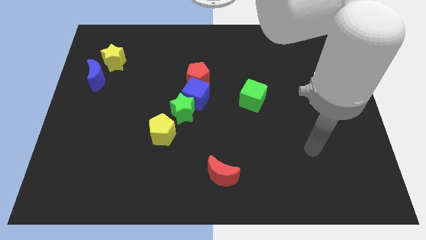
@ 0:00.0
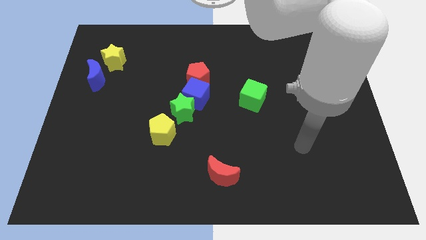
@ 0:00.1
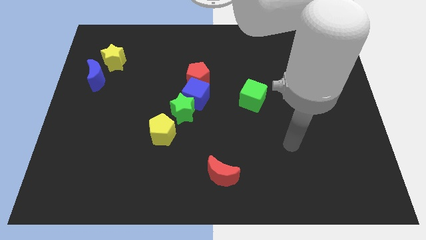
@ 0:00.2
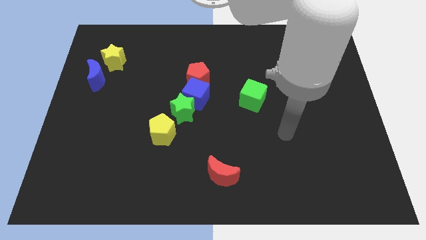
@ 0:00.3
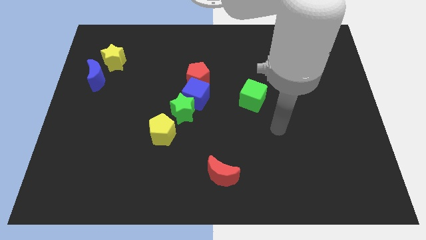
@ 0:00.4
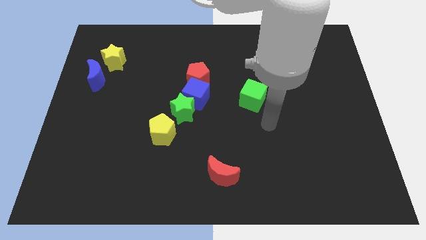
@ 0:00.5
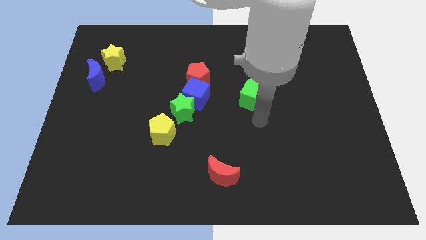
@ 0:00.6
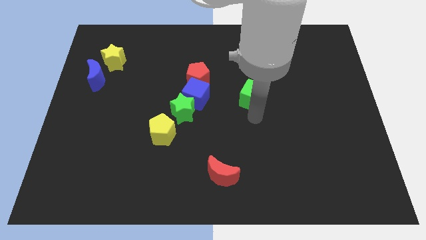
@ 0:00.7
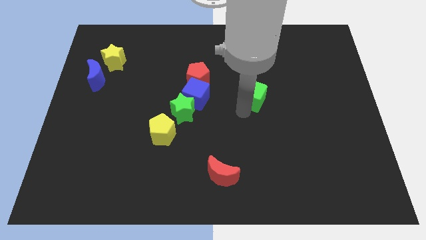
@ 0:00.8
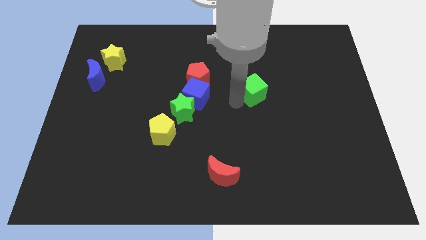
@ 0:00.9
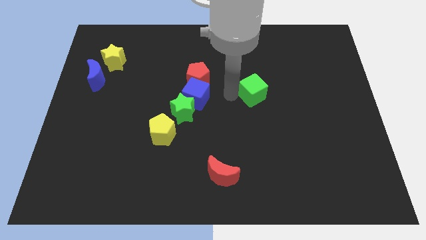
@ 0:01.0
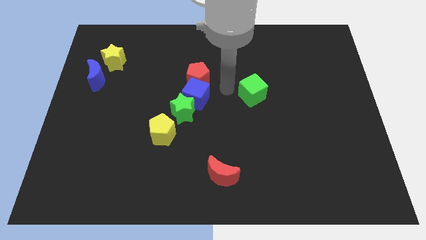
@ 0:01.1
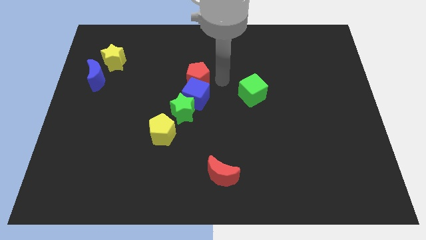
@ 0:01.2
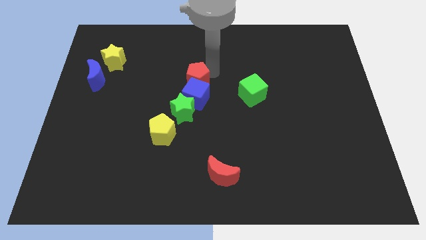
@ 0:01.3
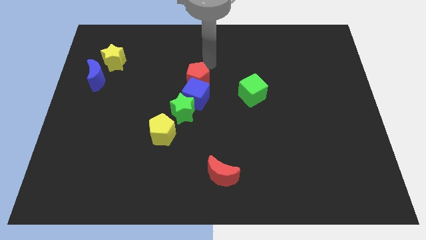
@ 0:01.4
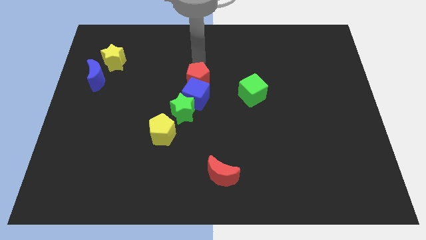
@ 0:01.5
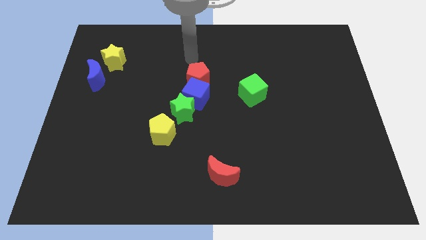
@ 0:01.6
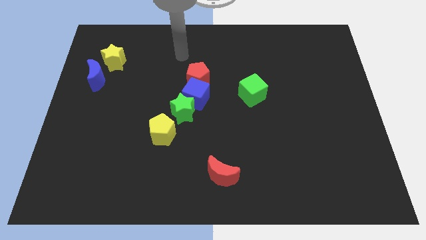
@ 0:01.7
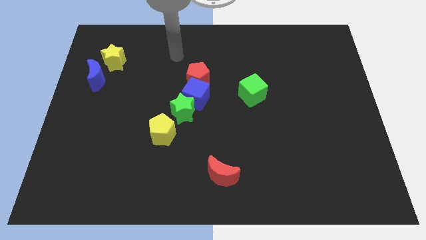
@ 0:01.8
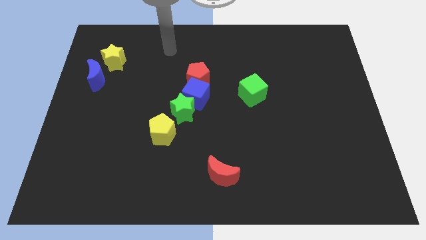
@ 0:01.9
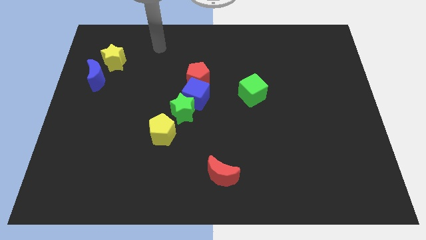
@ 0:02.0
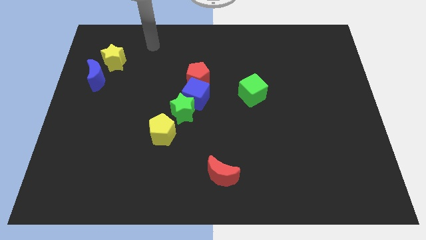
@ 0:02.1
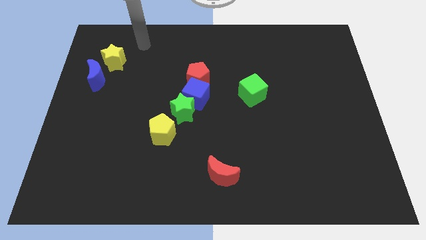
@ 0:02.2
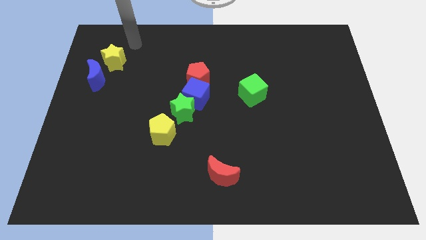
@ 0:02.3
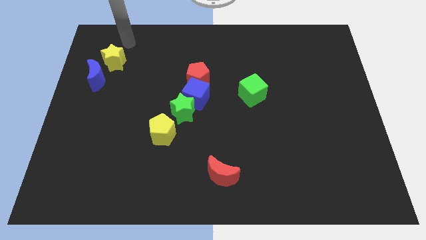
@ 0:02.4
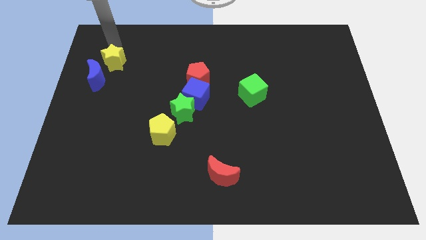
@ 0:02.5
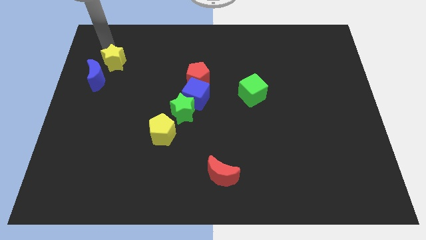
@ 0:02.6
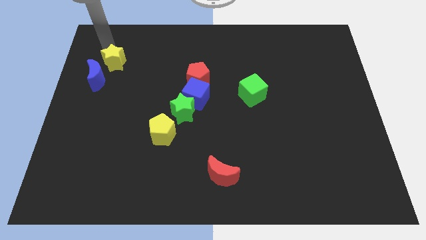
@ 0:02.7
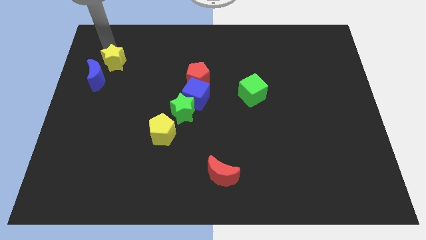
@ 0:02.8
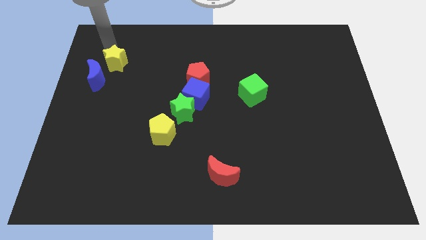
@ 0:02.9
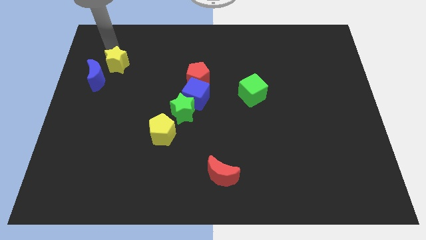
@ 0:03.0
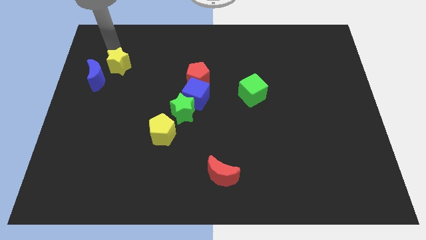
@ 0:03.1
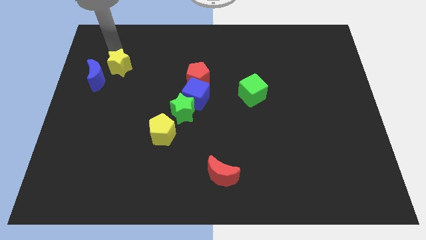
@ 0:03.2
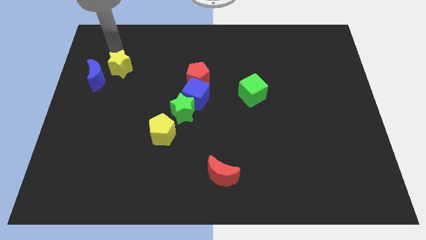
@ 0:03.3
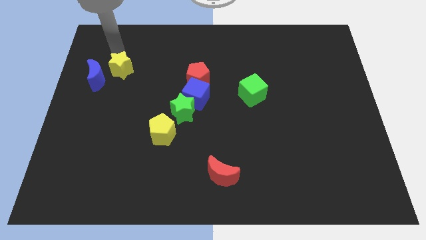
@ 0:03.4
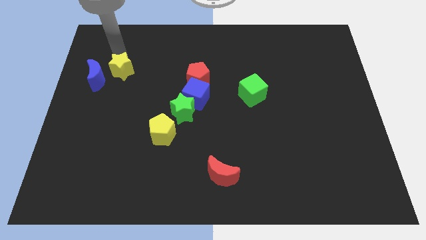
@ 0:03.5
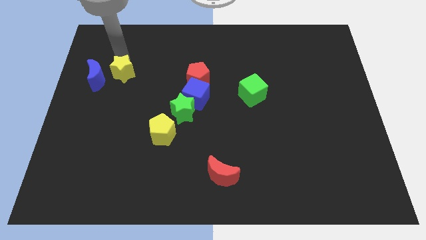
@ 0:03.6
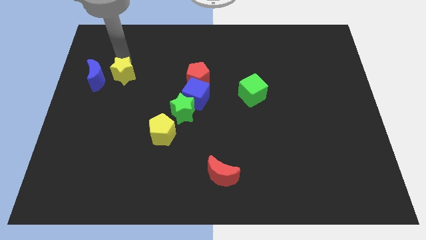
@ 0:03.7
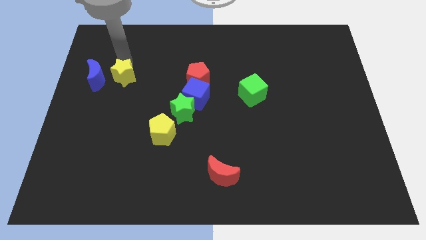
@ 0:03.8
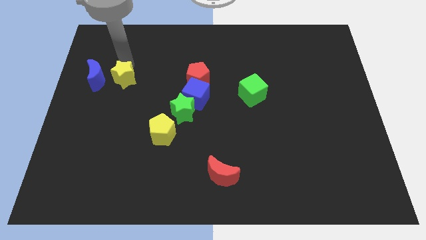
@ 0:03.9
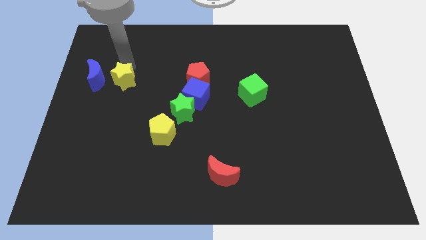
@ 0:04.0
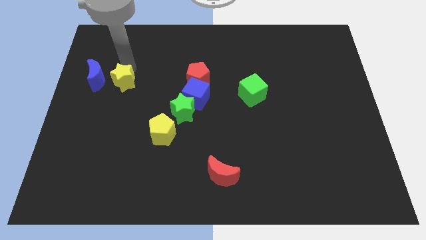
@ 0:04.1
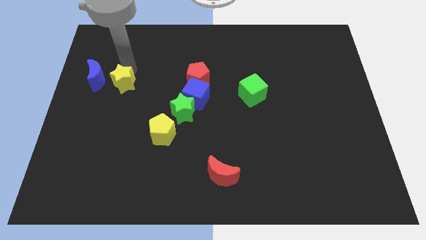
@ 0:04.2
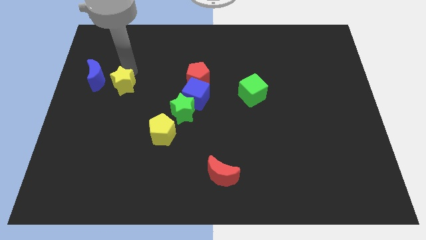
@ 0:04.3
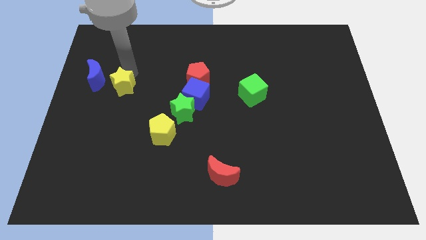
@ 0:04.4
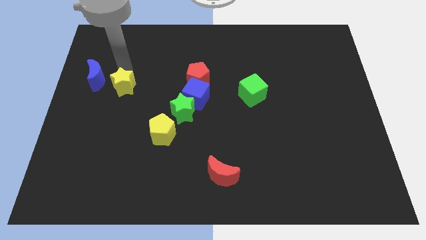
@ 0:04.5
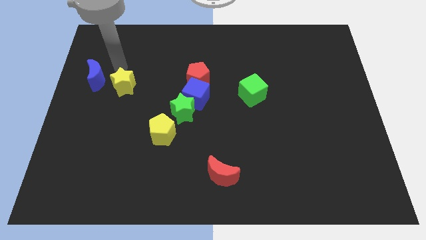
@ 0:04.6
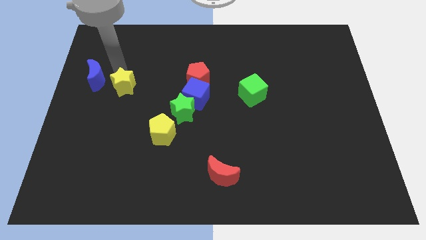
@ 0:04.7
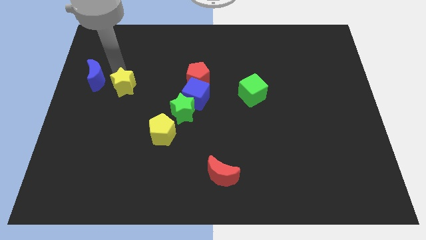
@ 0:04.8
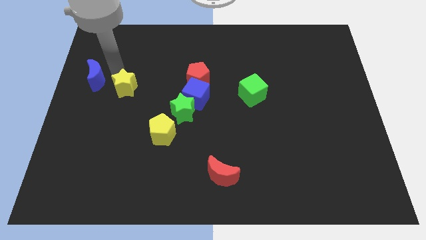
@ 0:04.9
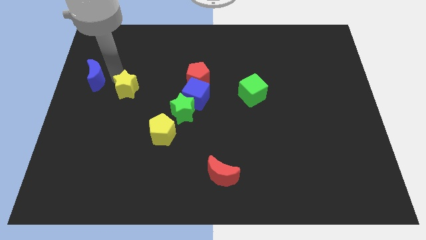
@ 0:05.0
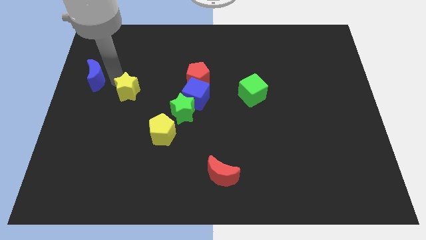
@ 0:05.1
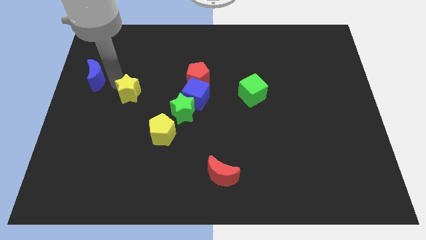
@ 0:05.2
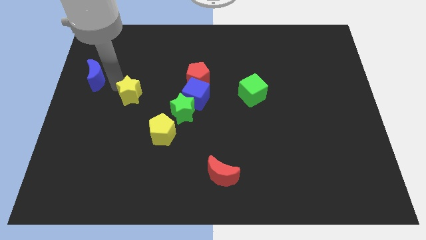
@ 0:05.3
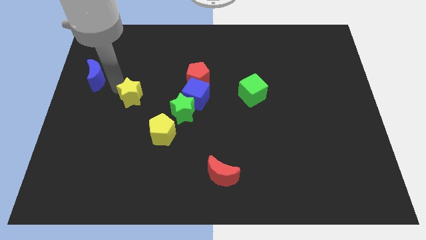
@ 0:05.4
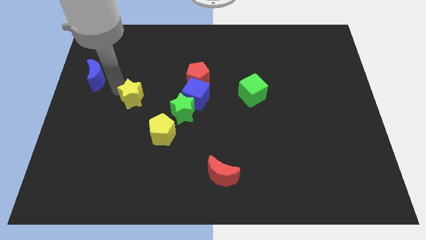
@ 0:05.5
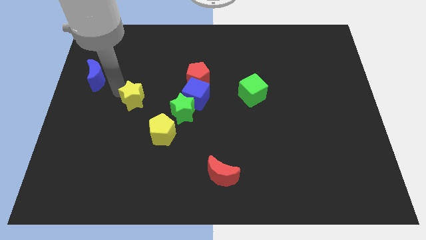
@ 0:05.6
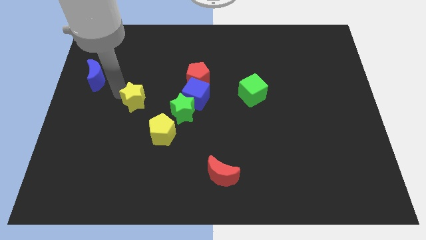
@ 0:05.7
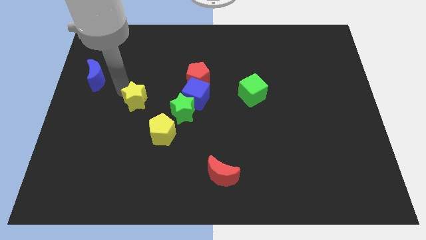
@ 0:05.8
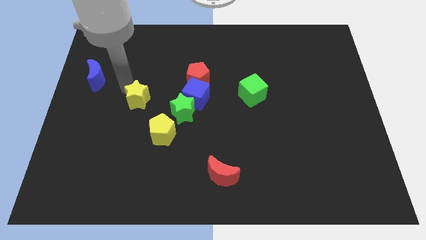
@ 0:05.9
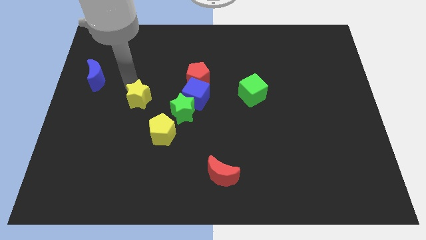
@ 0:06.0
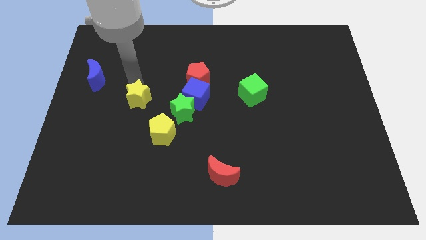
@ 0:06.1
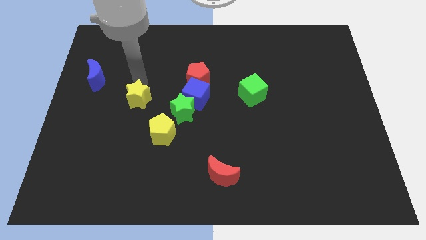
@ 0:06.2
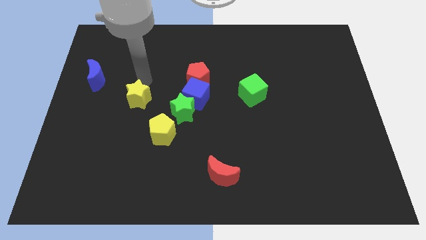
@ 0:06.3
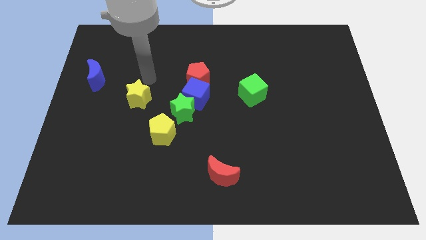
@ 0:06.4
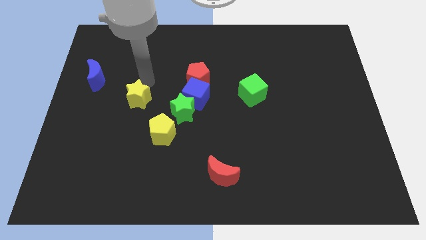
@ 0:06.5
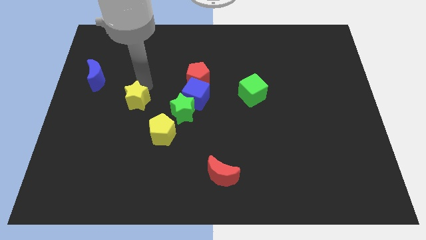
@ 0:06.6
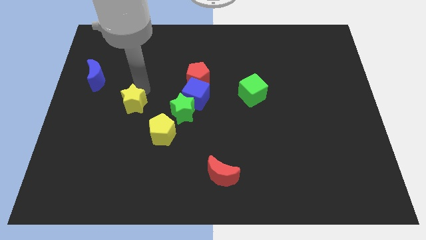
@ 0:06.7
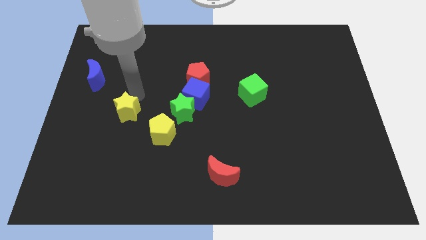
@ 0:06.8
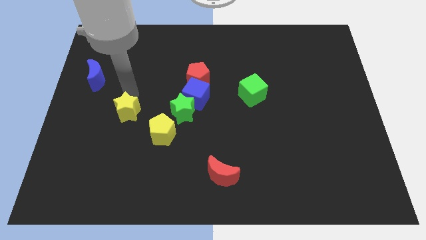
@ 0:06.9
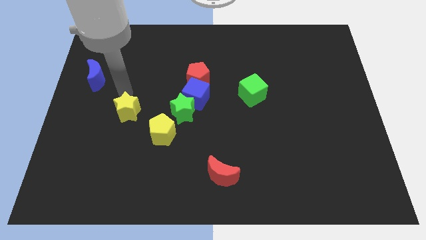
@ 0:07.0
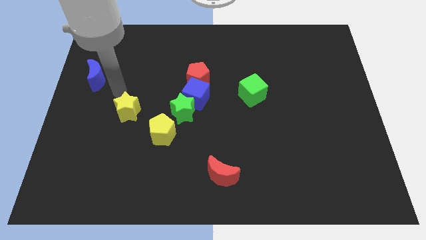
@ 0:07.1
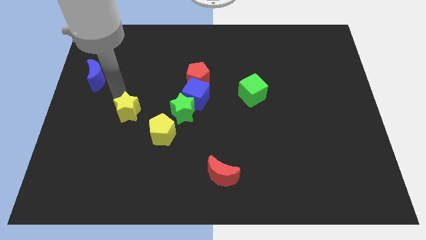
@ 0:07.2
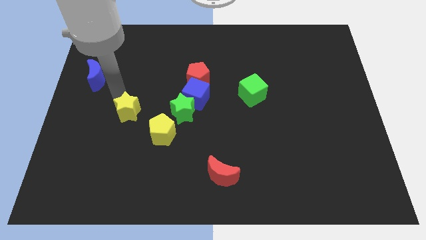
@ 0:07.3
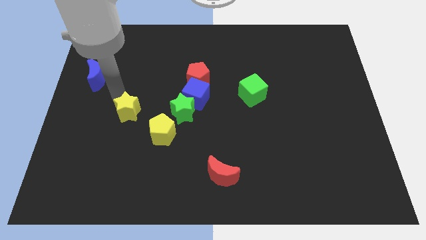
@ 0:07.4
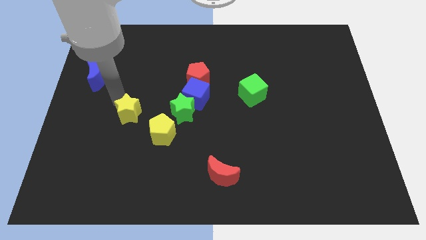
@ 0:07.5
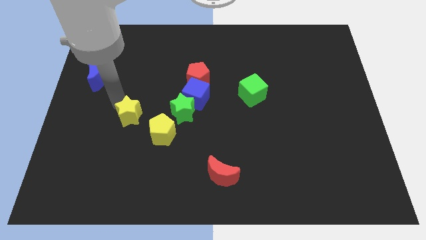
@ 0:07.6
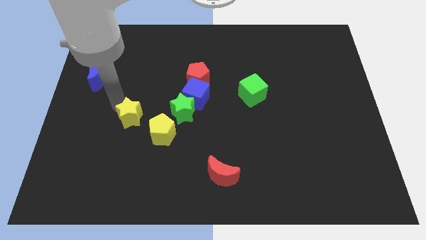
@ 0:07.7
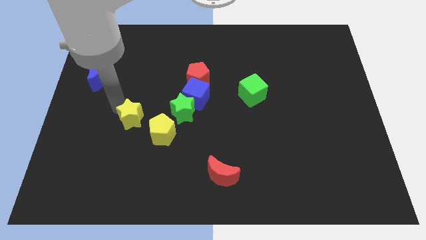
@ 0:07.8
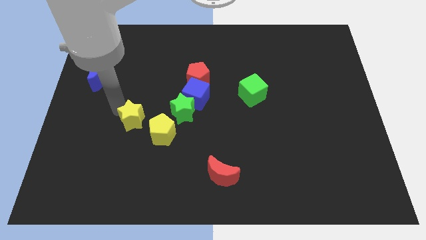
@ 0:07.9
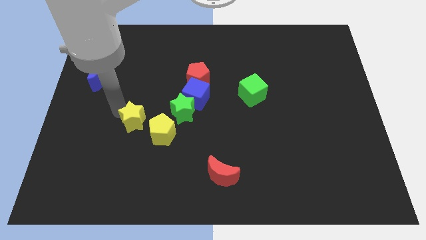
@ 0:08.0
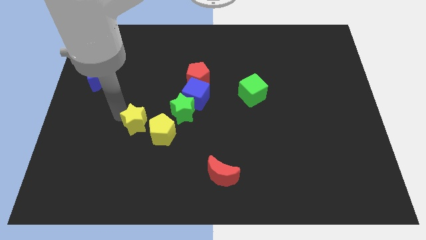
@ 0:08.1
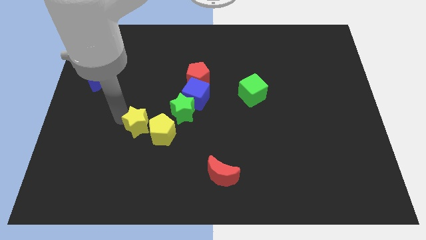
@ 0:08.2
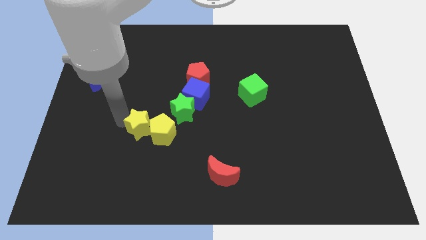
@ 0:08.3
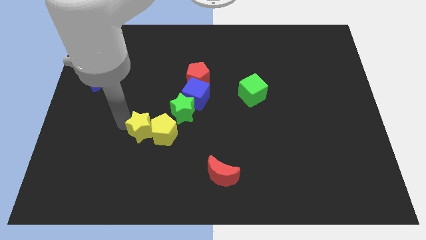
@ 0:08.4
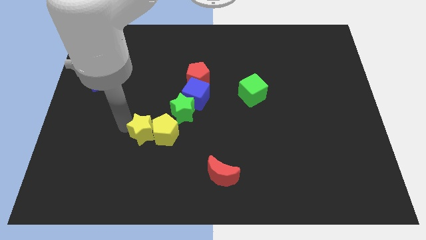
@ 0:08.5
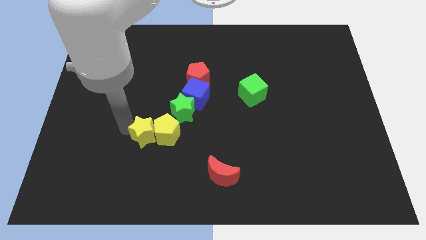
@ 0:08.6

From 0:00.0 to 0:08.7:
slide the yellow star downwards and to the right
